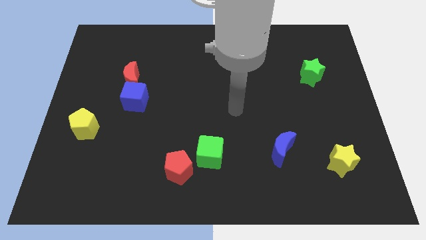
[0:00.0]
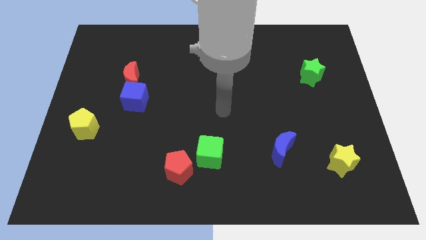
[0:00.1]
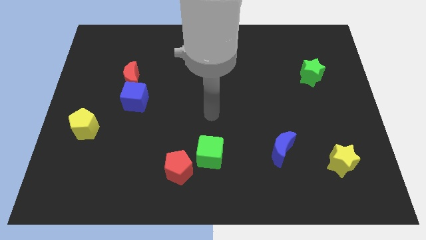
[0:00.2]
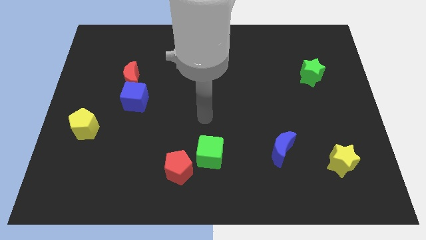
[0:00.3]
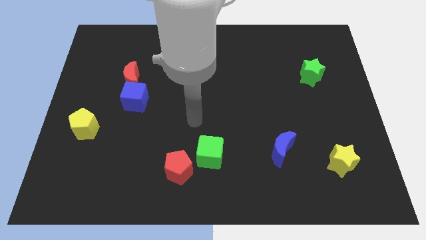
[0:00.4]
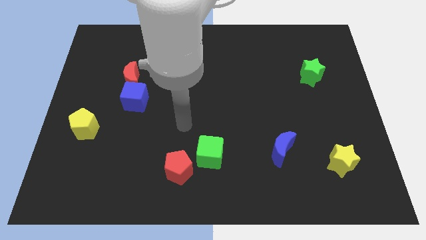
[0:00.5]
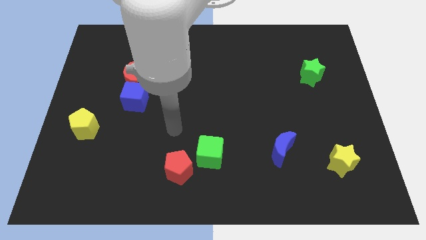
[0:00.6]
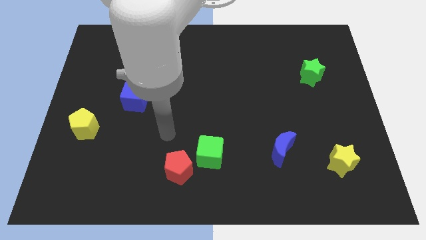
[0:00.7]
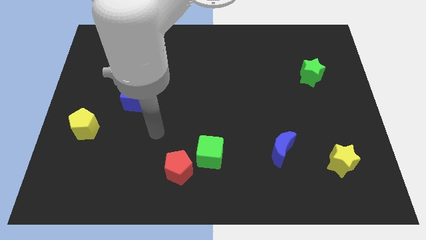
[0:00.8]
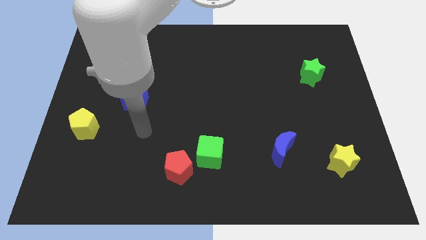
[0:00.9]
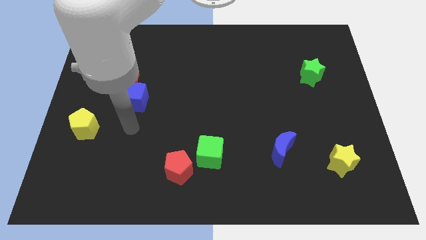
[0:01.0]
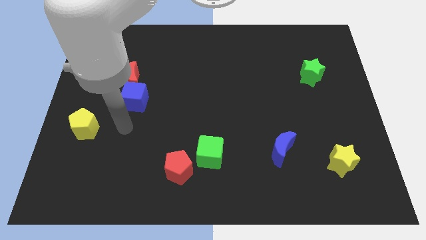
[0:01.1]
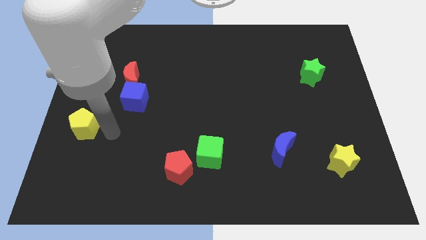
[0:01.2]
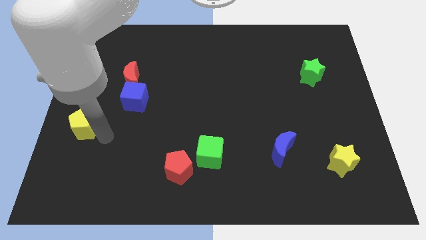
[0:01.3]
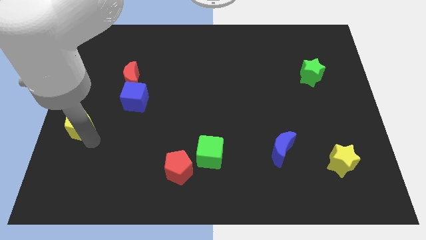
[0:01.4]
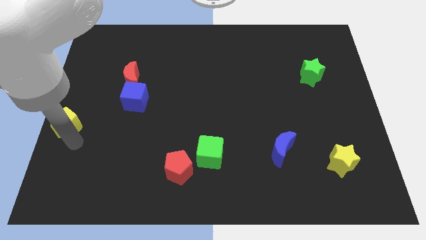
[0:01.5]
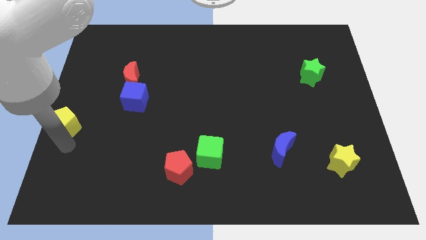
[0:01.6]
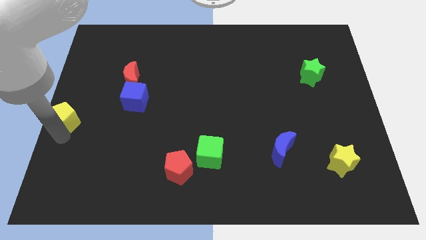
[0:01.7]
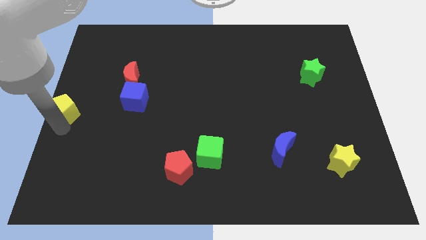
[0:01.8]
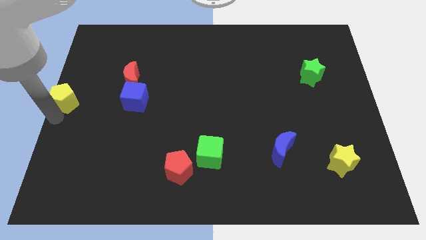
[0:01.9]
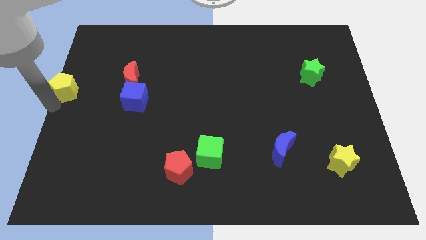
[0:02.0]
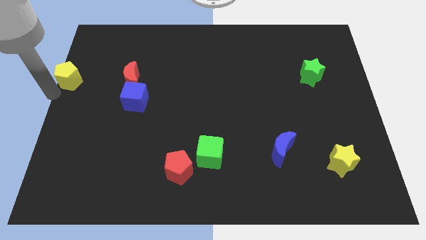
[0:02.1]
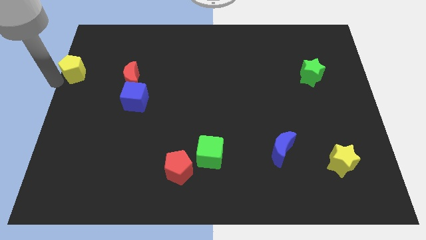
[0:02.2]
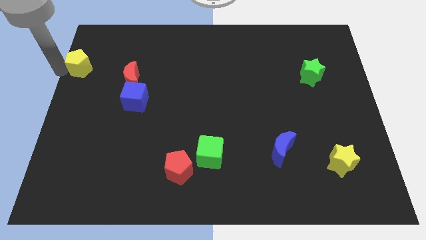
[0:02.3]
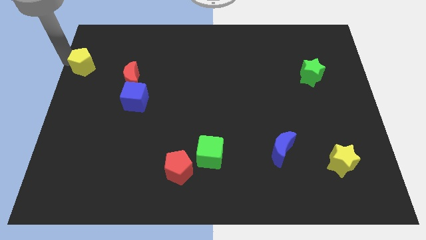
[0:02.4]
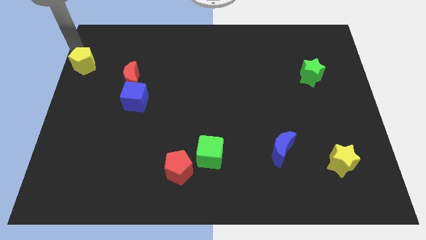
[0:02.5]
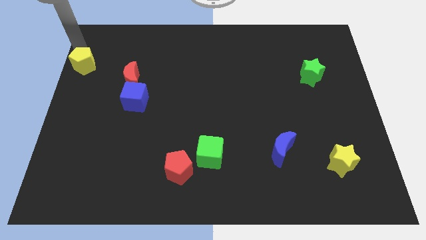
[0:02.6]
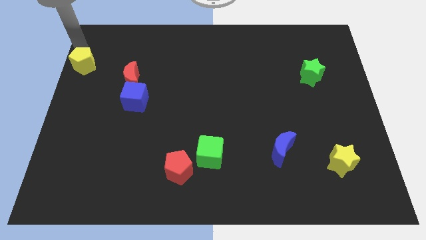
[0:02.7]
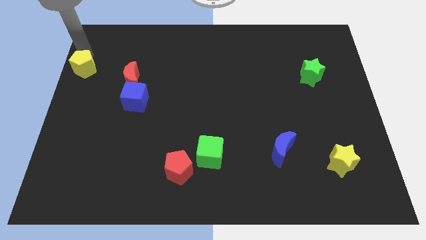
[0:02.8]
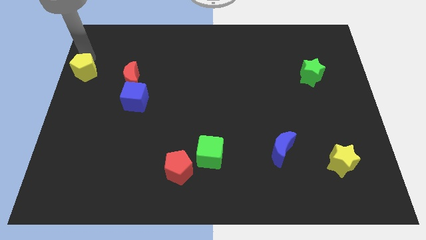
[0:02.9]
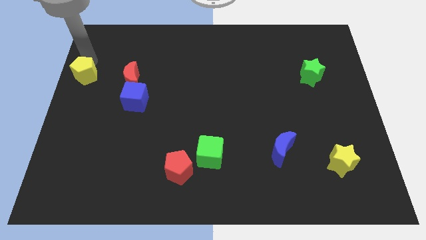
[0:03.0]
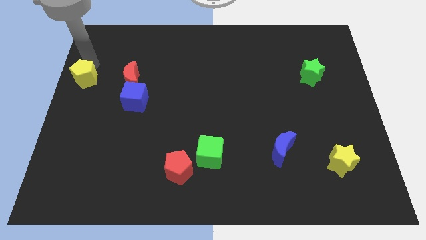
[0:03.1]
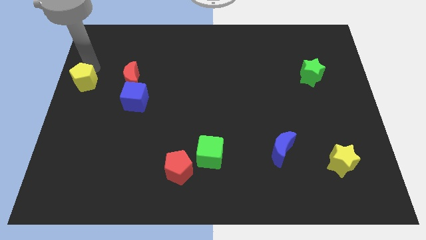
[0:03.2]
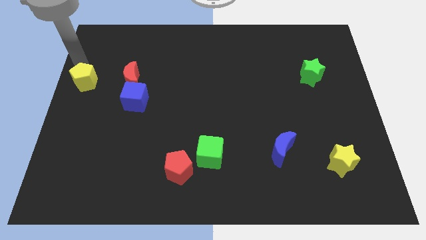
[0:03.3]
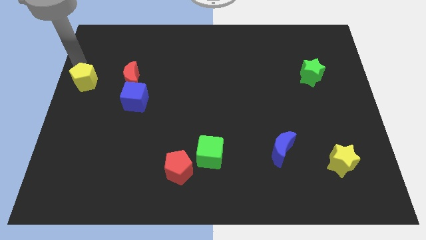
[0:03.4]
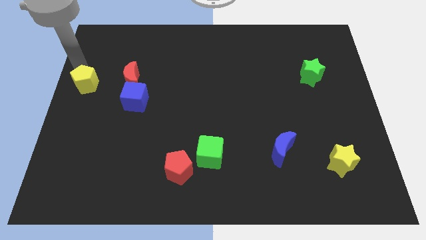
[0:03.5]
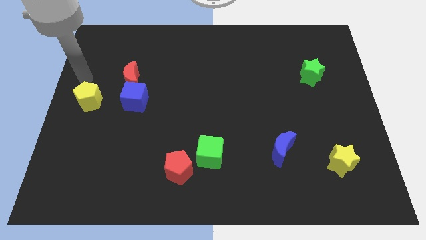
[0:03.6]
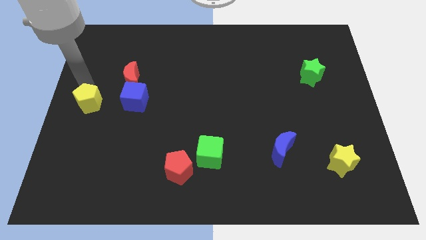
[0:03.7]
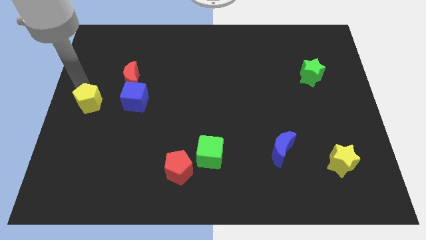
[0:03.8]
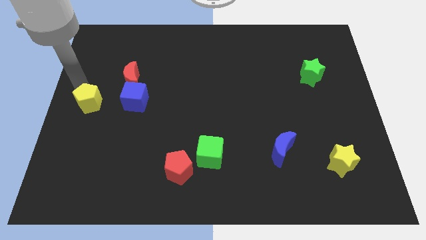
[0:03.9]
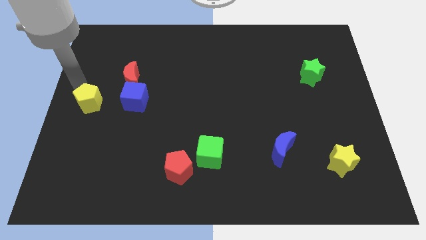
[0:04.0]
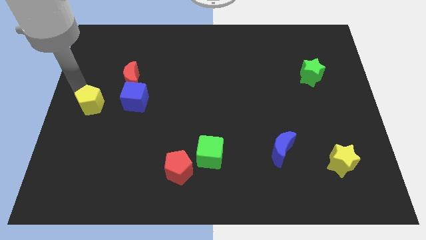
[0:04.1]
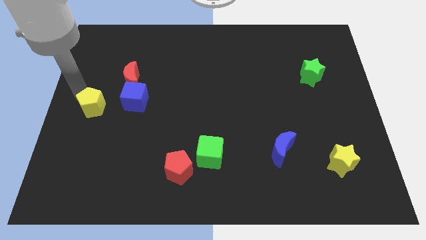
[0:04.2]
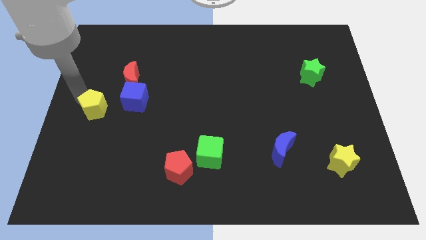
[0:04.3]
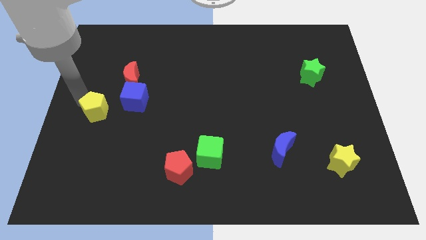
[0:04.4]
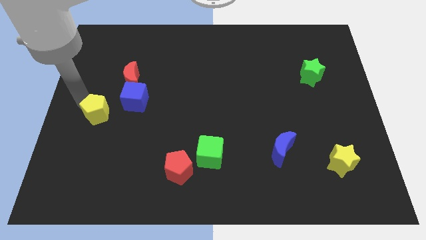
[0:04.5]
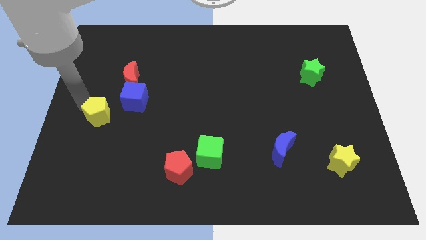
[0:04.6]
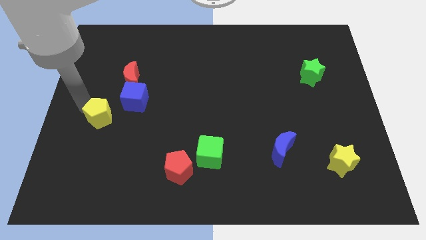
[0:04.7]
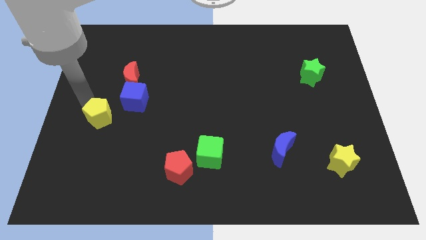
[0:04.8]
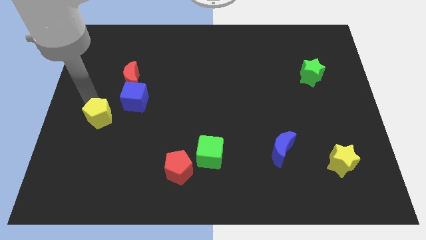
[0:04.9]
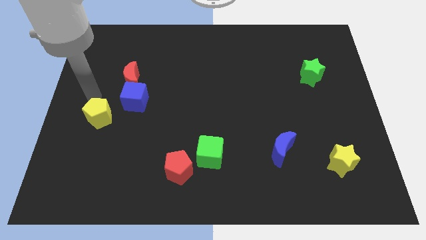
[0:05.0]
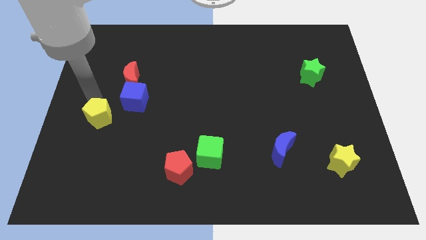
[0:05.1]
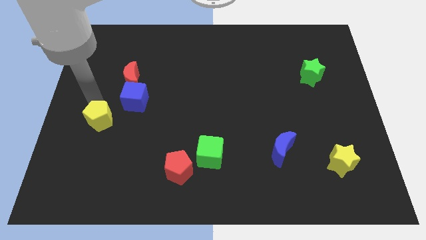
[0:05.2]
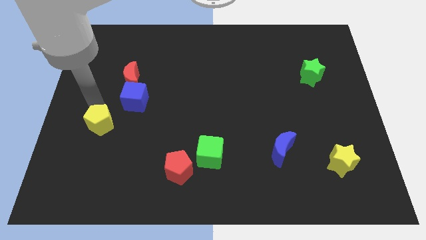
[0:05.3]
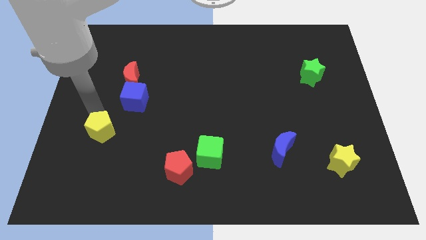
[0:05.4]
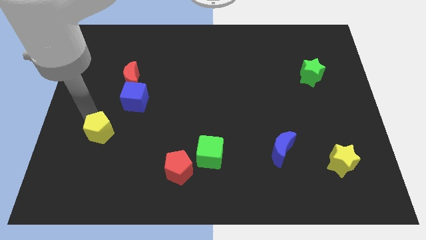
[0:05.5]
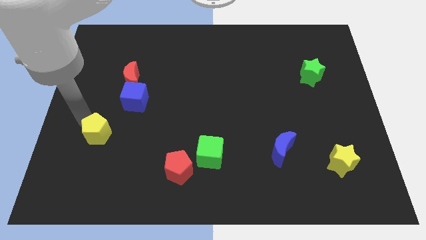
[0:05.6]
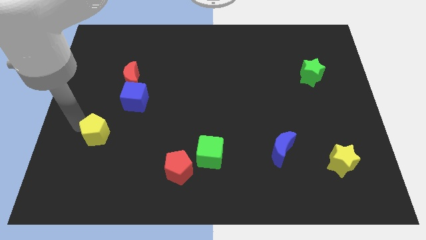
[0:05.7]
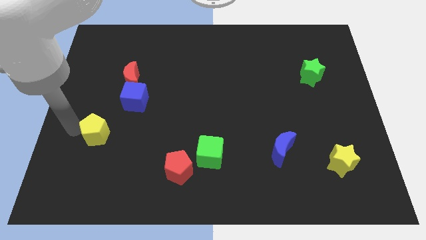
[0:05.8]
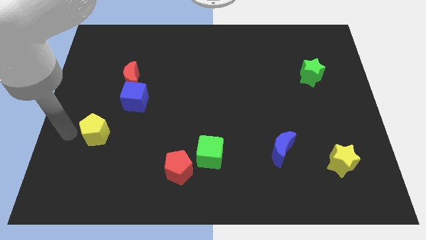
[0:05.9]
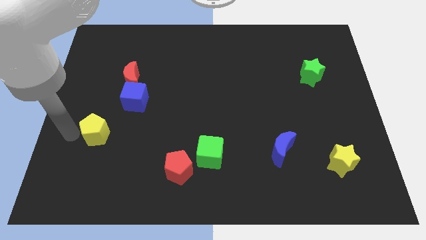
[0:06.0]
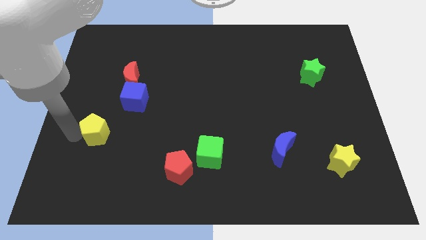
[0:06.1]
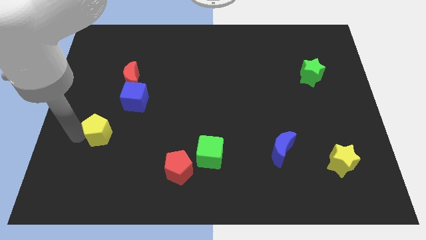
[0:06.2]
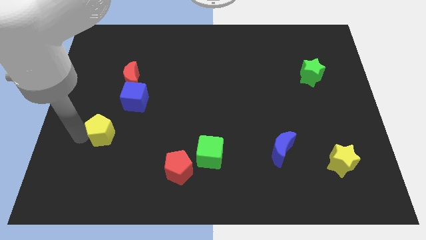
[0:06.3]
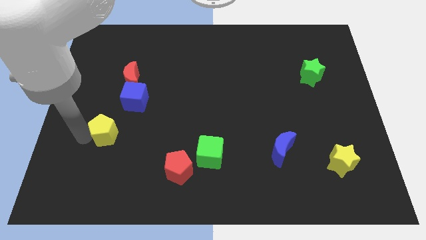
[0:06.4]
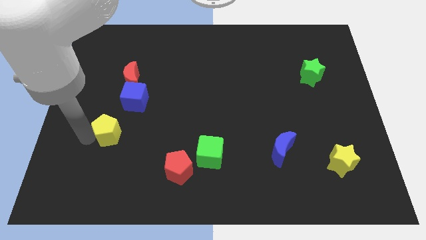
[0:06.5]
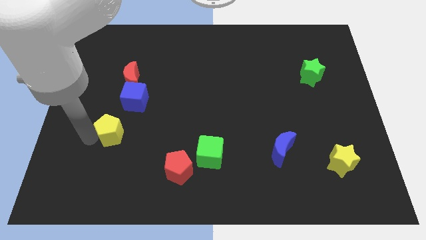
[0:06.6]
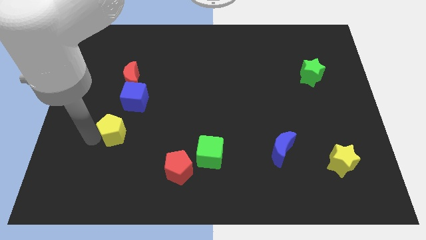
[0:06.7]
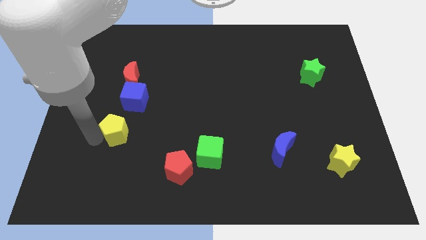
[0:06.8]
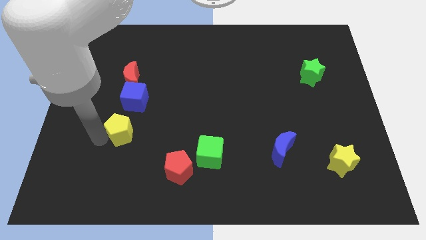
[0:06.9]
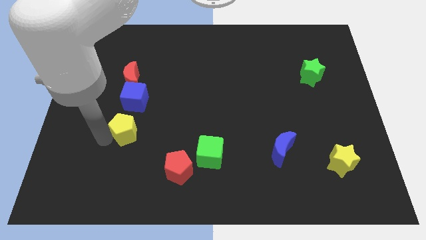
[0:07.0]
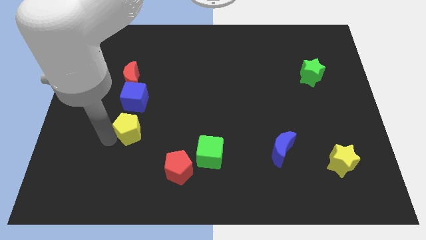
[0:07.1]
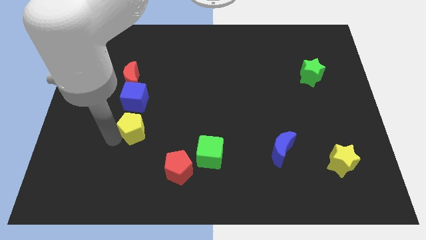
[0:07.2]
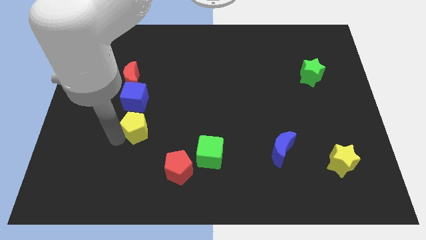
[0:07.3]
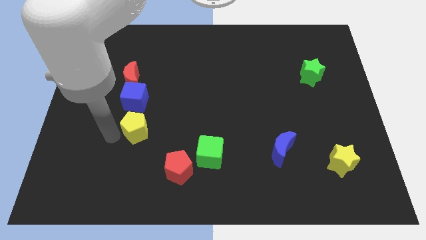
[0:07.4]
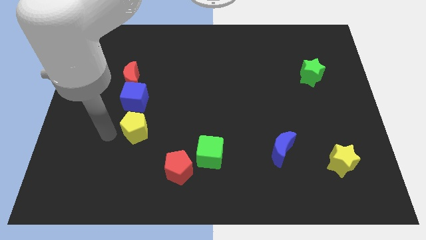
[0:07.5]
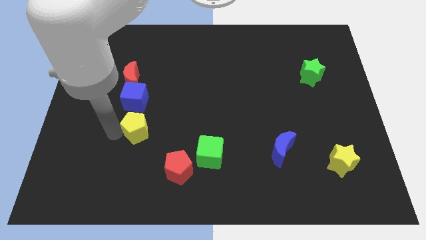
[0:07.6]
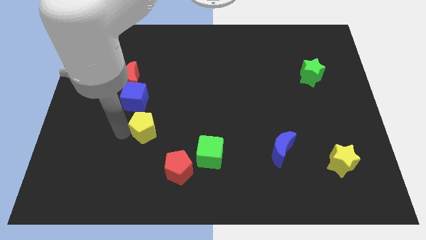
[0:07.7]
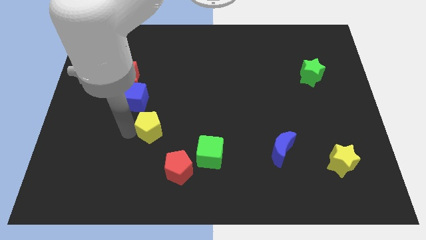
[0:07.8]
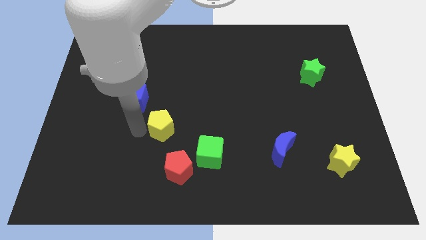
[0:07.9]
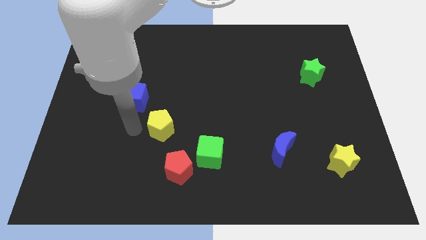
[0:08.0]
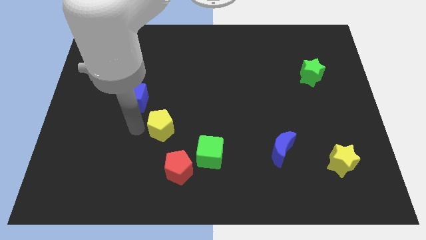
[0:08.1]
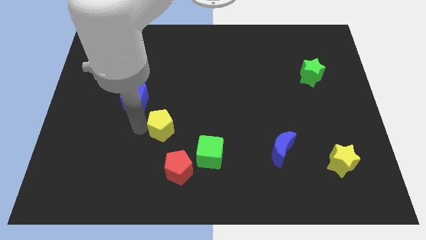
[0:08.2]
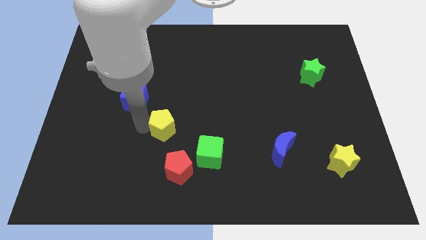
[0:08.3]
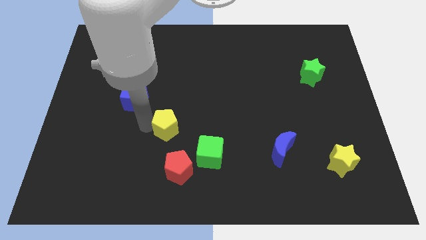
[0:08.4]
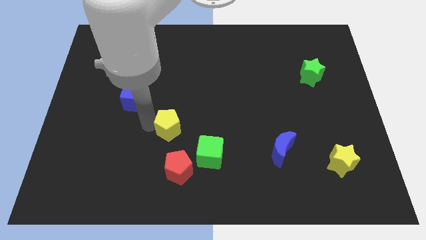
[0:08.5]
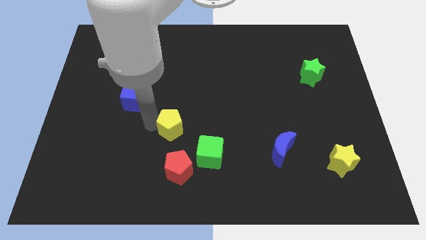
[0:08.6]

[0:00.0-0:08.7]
push the yellow pentagon right
